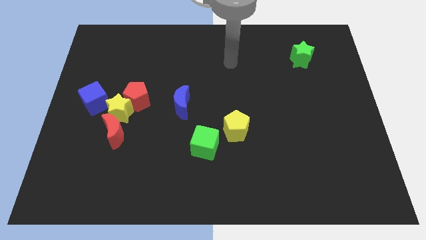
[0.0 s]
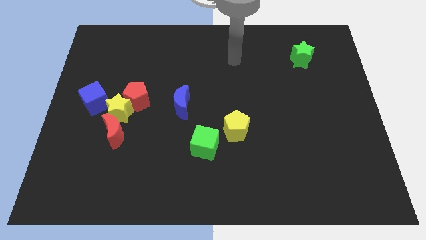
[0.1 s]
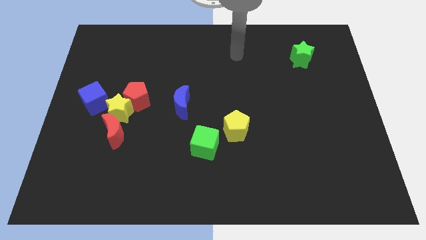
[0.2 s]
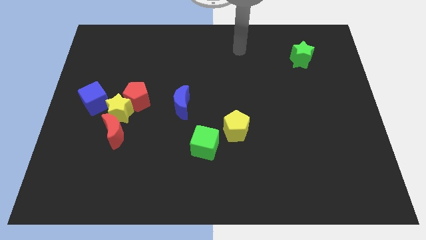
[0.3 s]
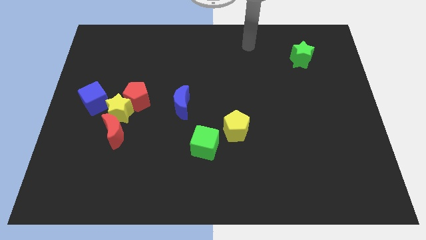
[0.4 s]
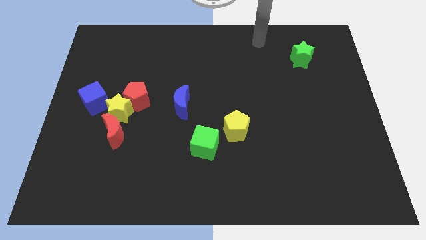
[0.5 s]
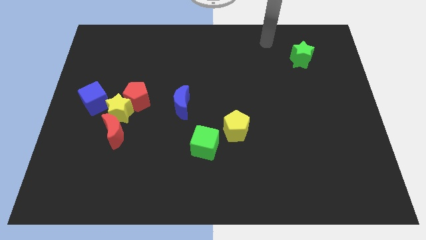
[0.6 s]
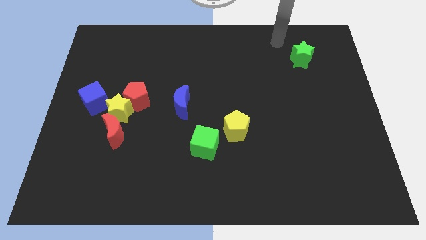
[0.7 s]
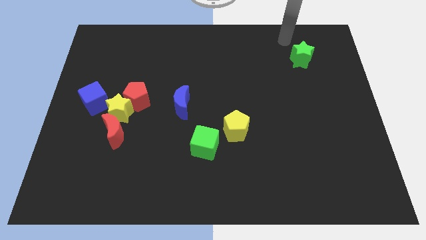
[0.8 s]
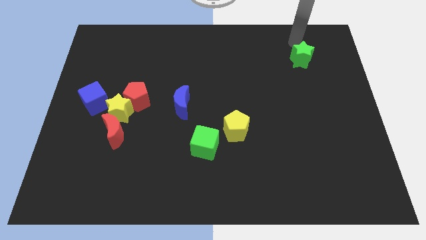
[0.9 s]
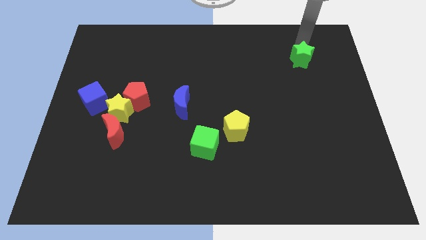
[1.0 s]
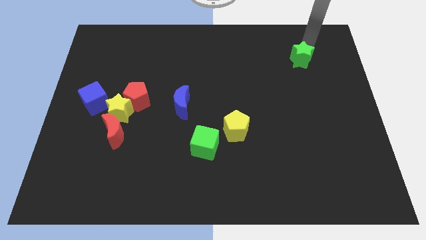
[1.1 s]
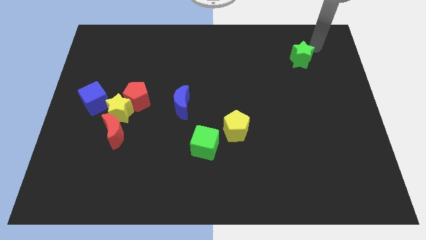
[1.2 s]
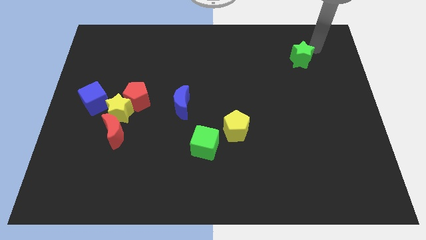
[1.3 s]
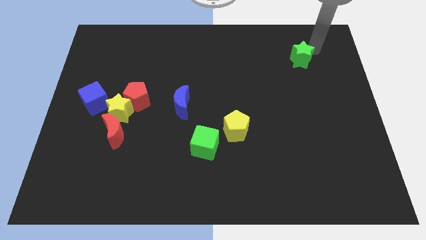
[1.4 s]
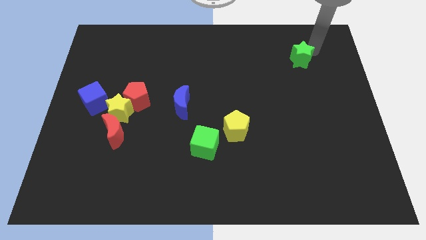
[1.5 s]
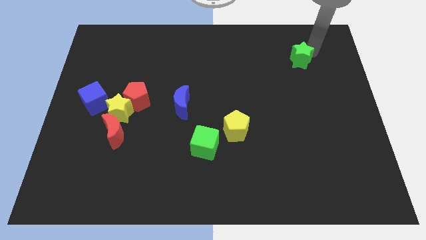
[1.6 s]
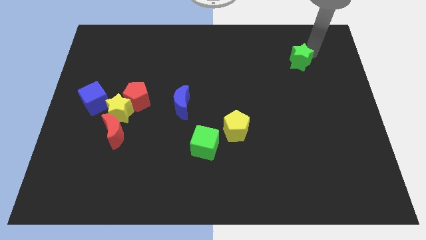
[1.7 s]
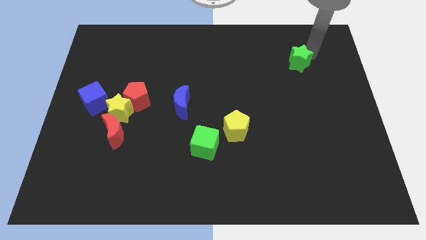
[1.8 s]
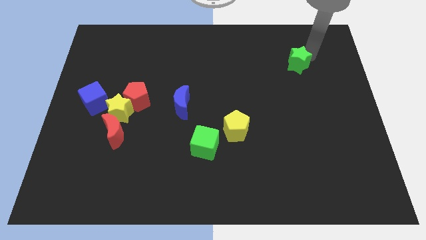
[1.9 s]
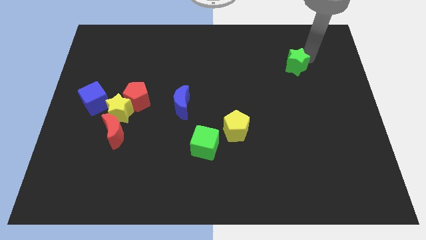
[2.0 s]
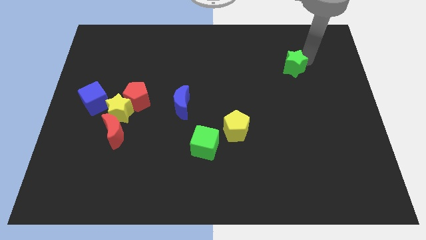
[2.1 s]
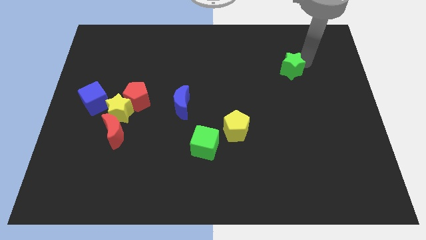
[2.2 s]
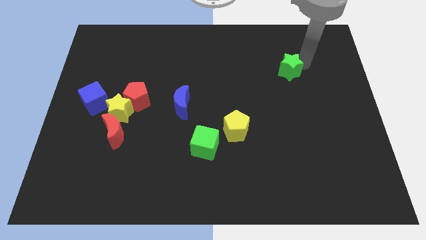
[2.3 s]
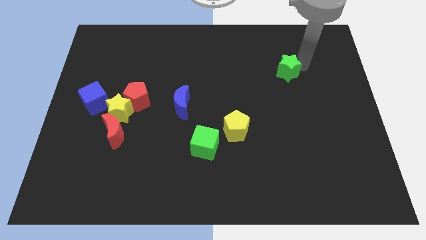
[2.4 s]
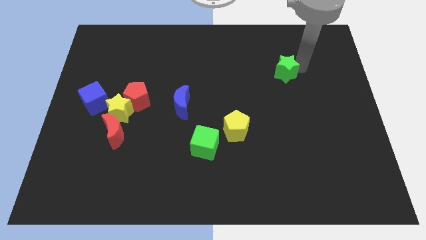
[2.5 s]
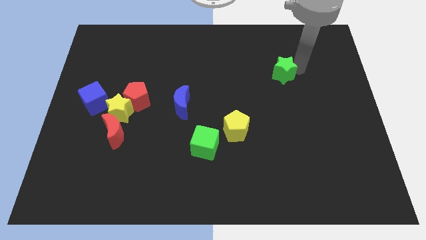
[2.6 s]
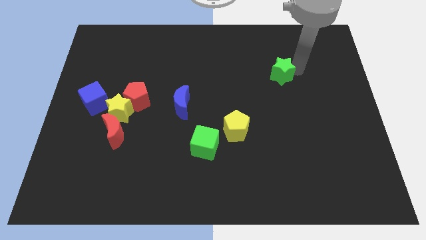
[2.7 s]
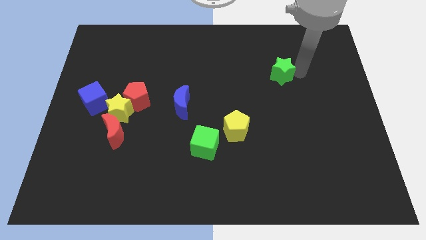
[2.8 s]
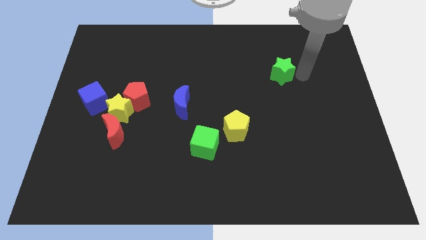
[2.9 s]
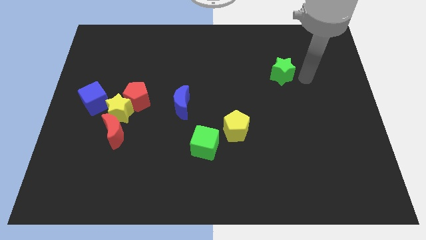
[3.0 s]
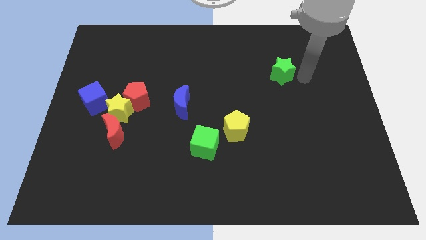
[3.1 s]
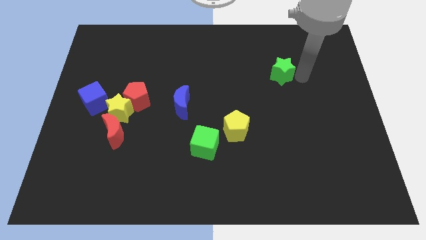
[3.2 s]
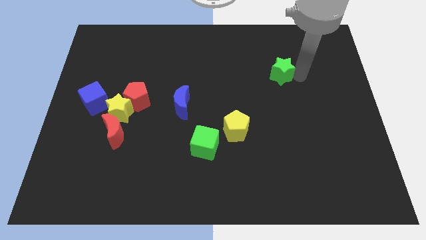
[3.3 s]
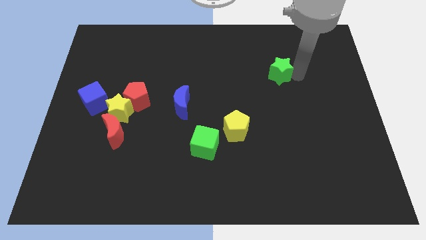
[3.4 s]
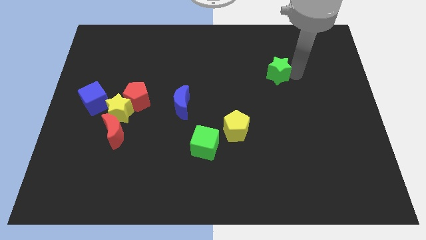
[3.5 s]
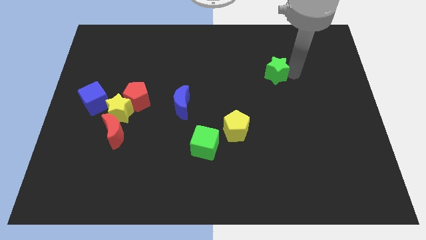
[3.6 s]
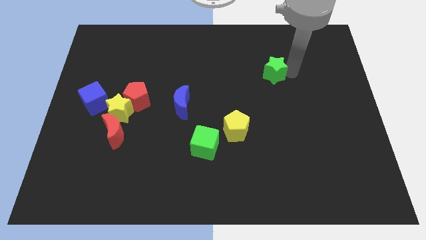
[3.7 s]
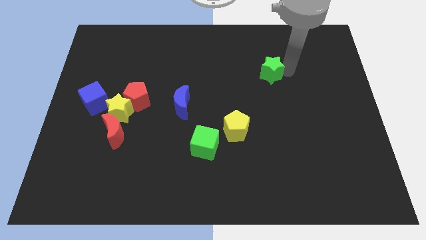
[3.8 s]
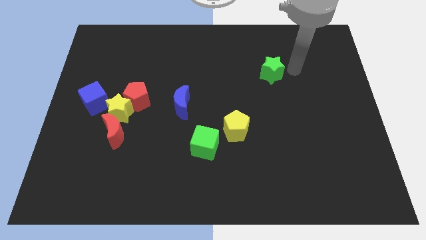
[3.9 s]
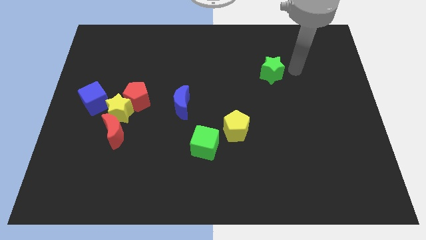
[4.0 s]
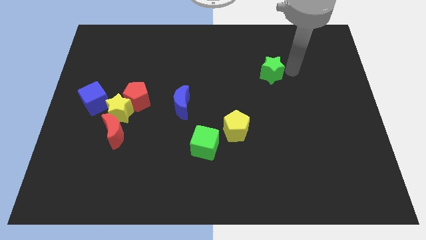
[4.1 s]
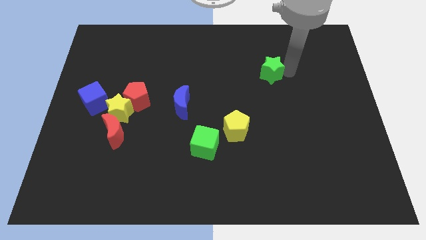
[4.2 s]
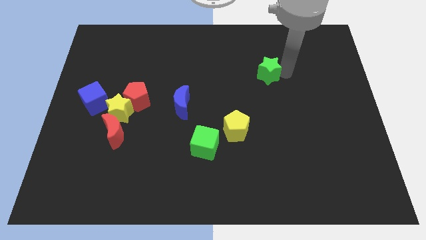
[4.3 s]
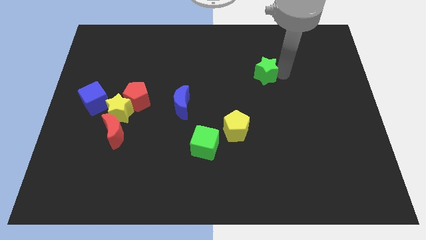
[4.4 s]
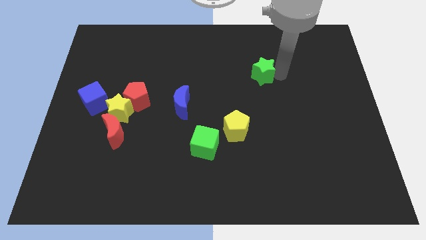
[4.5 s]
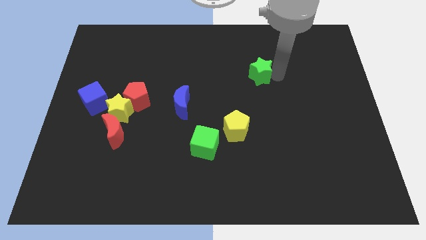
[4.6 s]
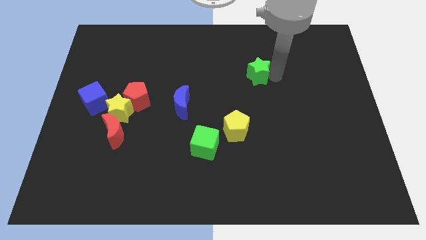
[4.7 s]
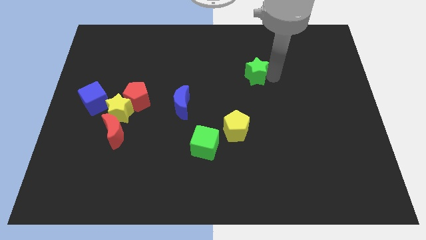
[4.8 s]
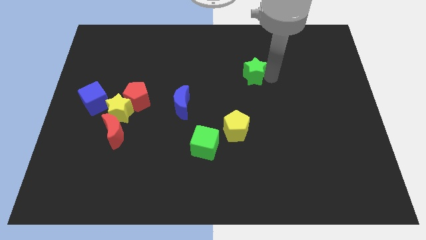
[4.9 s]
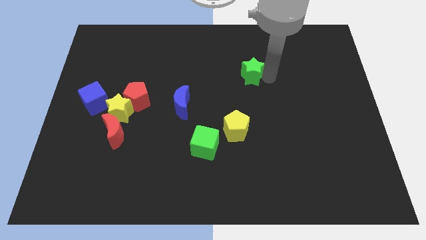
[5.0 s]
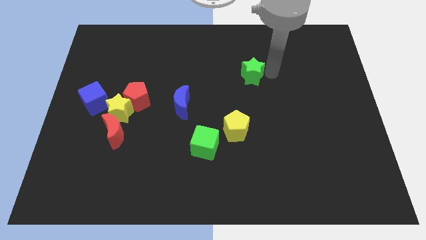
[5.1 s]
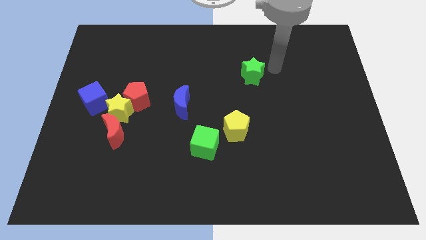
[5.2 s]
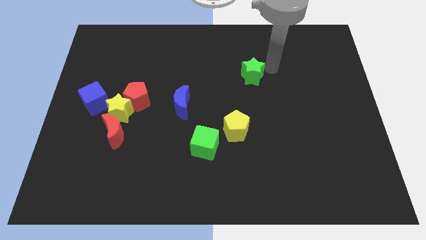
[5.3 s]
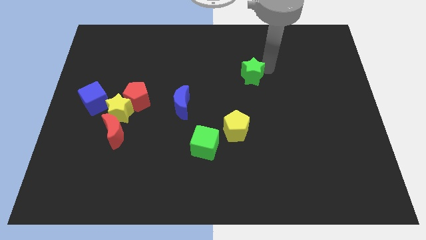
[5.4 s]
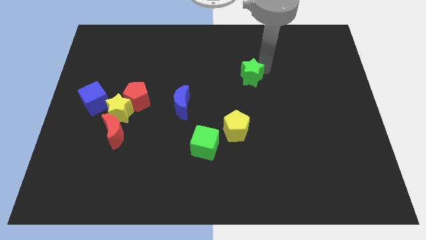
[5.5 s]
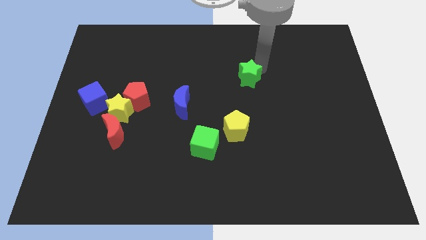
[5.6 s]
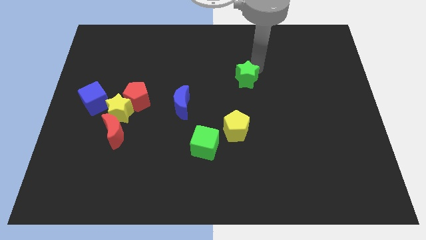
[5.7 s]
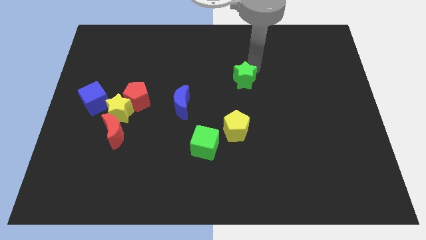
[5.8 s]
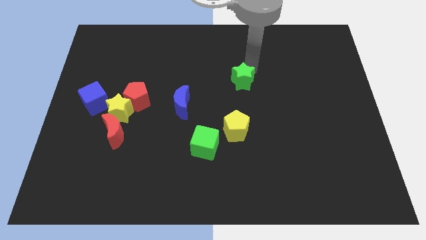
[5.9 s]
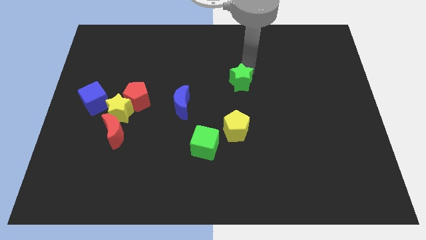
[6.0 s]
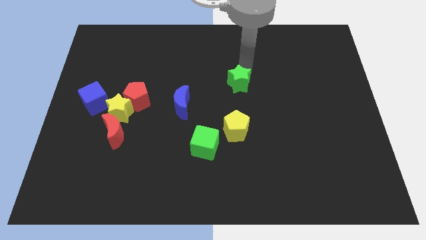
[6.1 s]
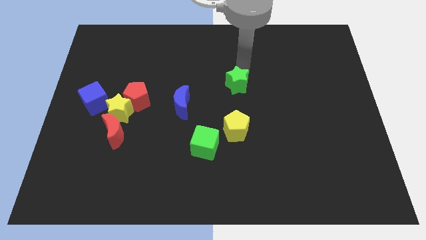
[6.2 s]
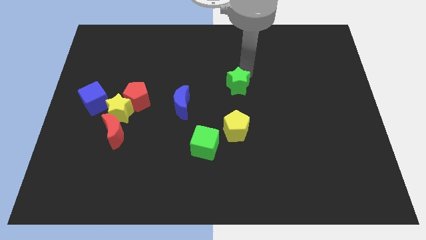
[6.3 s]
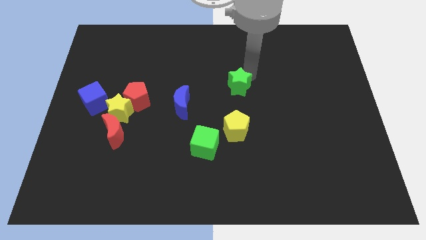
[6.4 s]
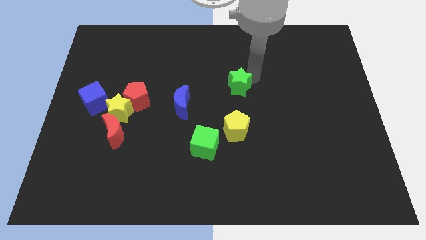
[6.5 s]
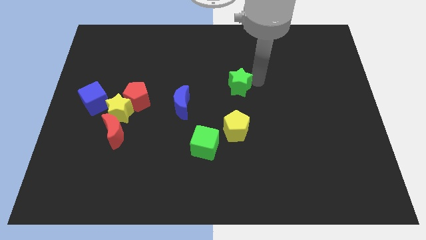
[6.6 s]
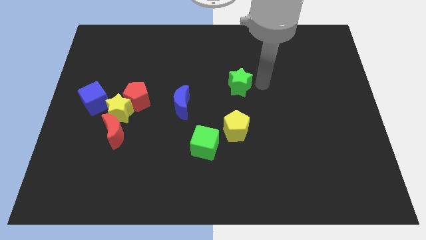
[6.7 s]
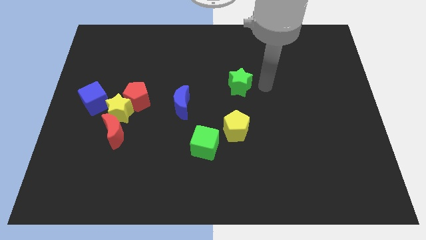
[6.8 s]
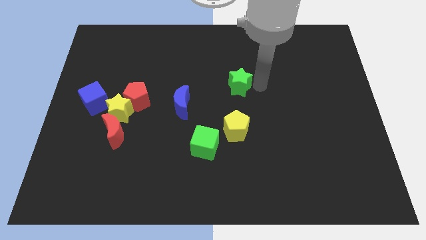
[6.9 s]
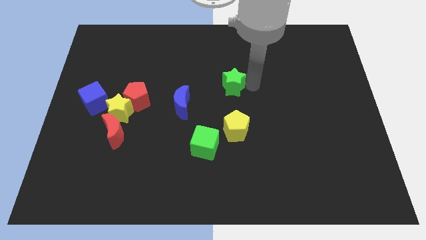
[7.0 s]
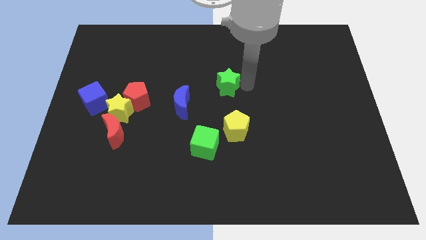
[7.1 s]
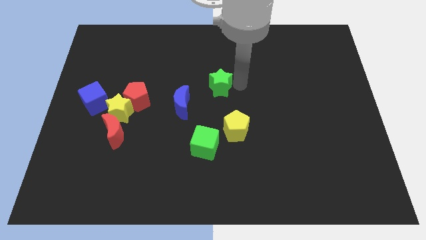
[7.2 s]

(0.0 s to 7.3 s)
slide the green star to the top right side of the blue moon
